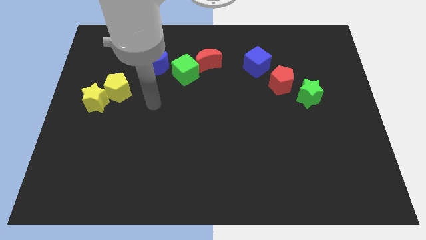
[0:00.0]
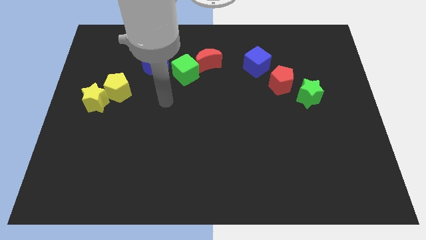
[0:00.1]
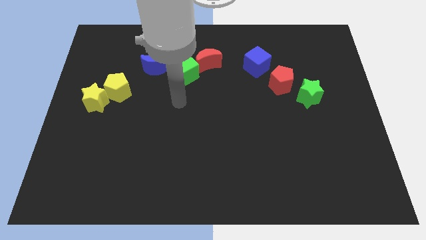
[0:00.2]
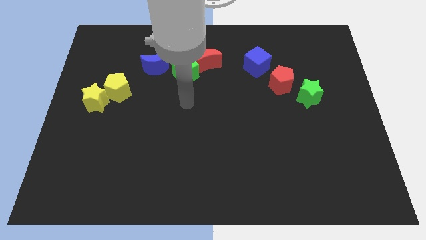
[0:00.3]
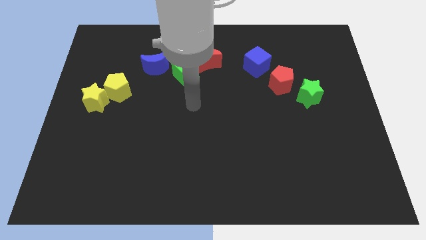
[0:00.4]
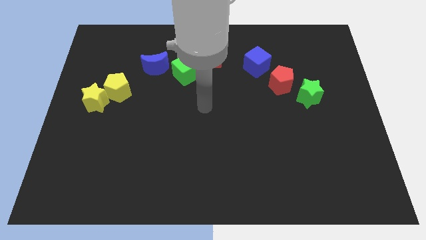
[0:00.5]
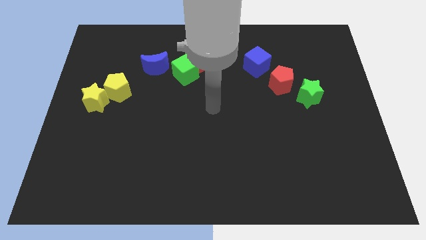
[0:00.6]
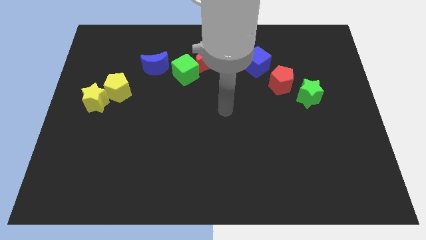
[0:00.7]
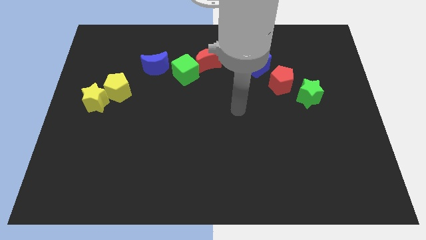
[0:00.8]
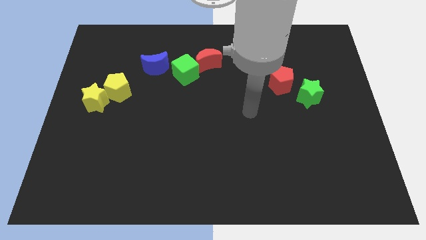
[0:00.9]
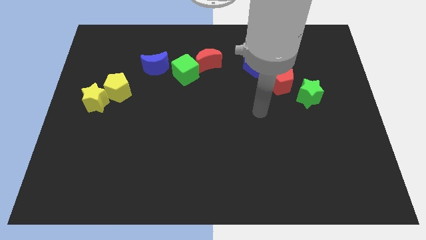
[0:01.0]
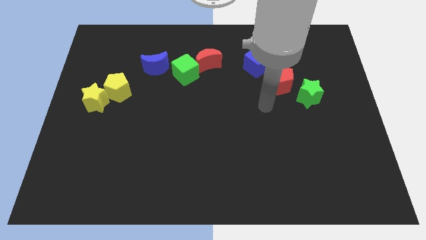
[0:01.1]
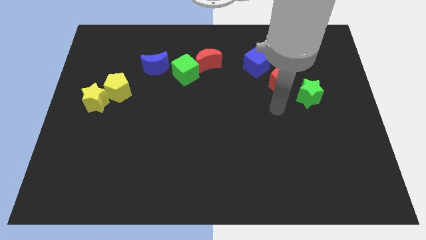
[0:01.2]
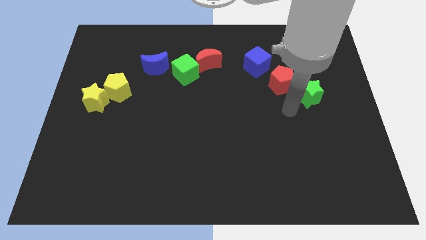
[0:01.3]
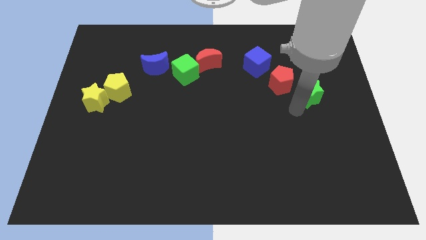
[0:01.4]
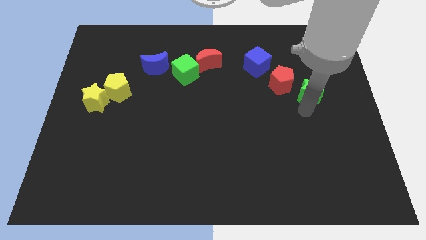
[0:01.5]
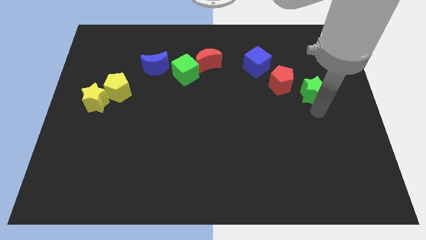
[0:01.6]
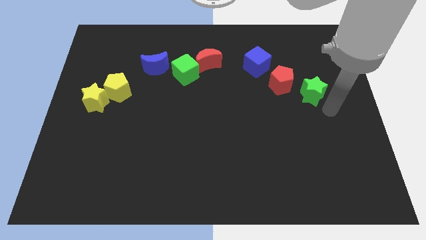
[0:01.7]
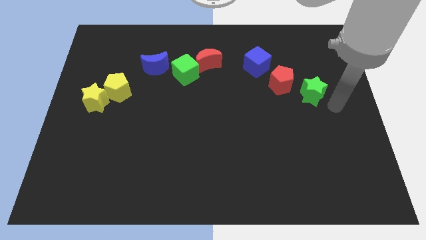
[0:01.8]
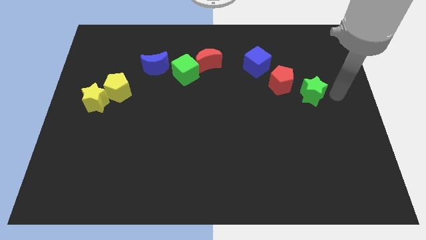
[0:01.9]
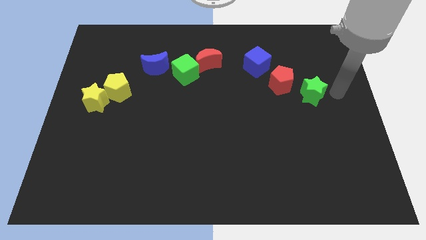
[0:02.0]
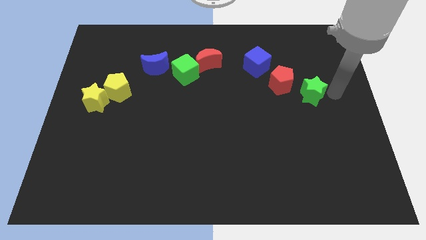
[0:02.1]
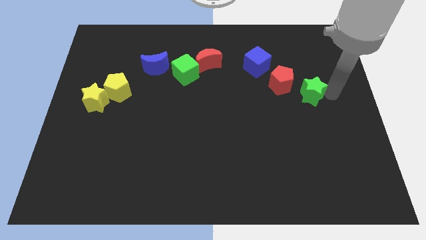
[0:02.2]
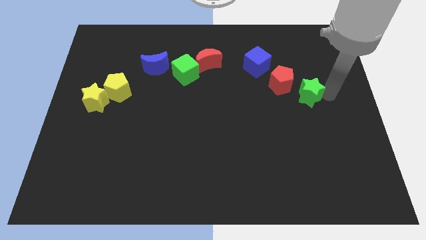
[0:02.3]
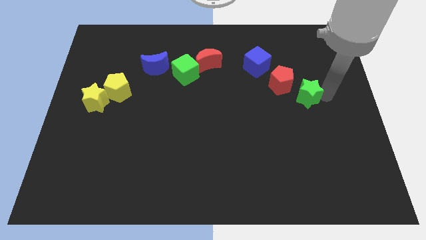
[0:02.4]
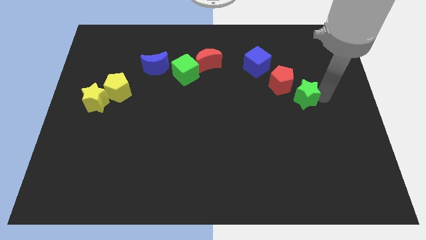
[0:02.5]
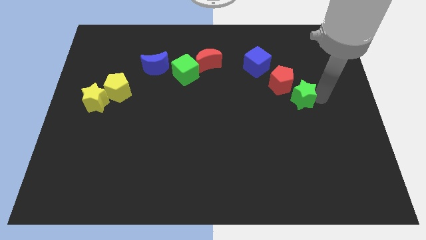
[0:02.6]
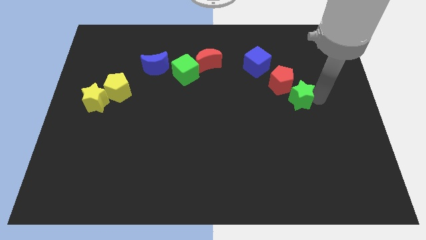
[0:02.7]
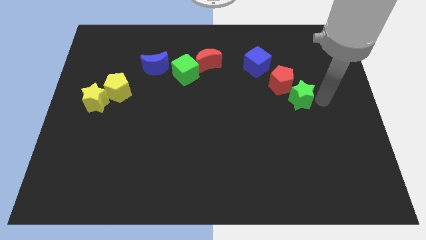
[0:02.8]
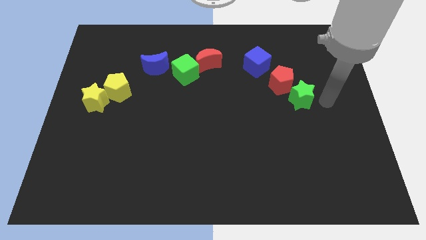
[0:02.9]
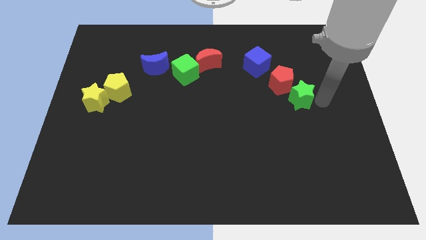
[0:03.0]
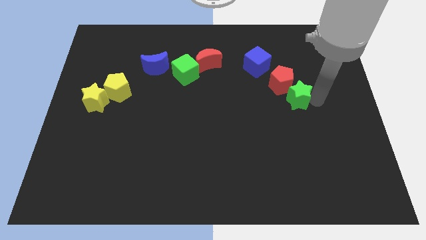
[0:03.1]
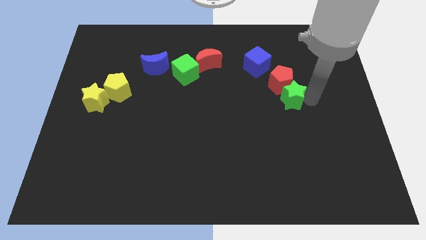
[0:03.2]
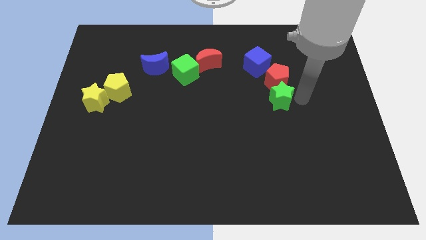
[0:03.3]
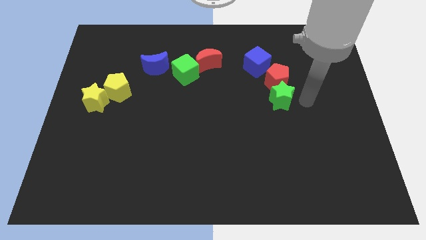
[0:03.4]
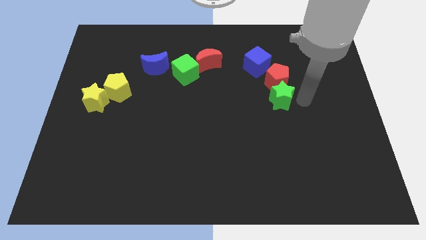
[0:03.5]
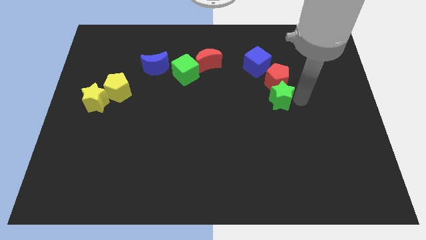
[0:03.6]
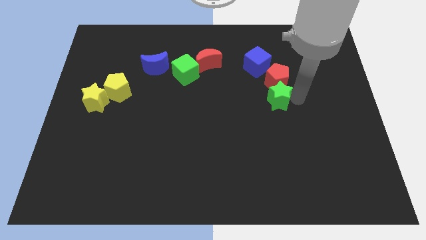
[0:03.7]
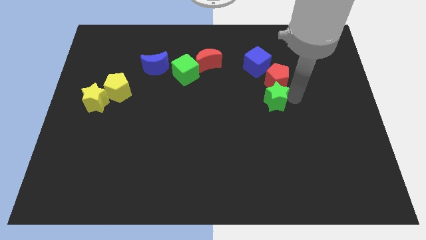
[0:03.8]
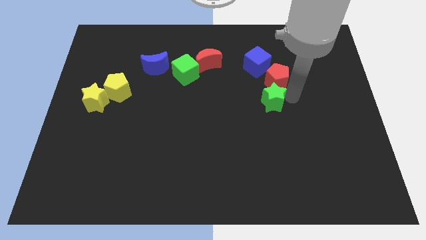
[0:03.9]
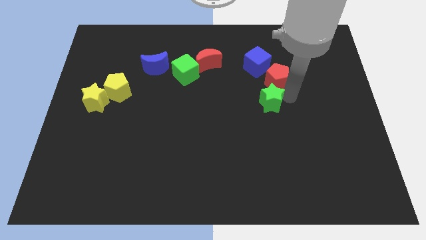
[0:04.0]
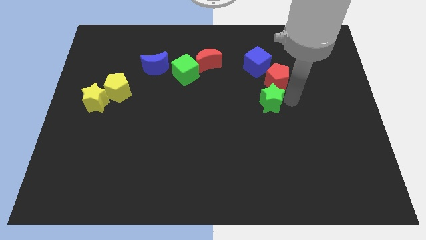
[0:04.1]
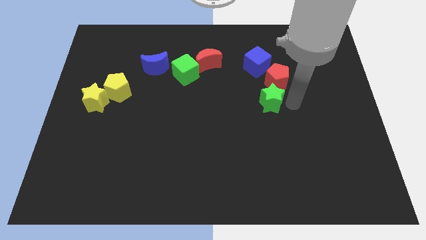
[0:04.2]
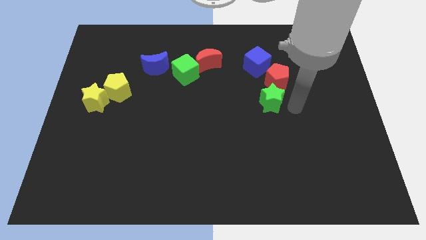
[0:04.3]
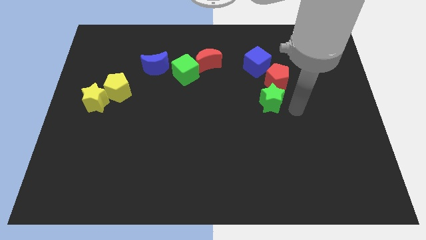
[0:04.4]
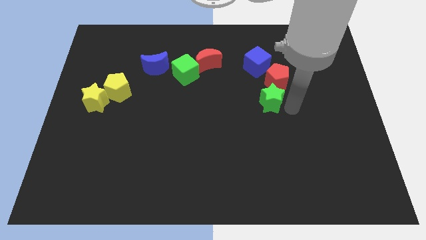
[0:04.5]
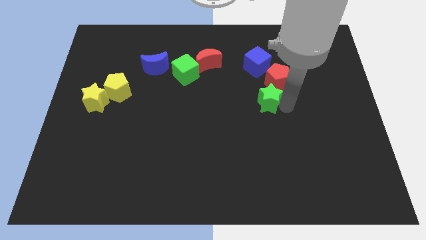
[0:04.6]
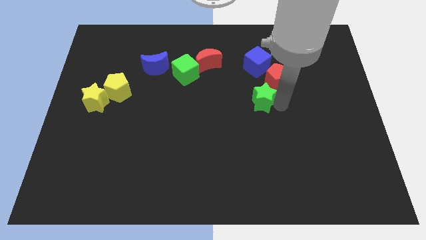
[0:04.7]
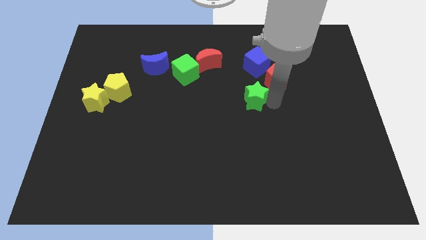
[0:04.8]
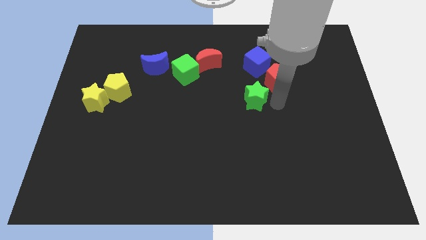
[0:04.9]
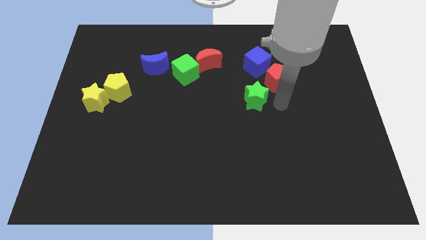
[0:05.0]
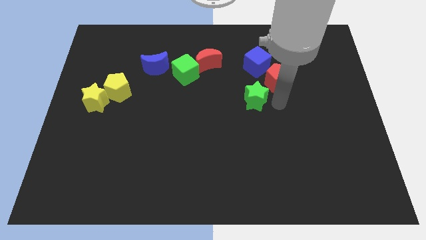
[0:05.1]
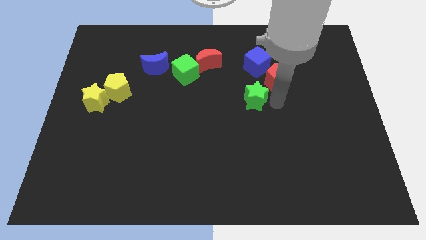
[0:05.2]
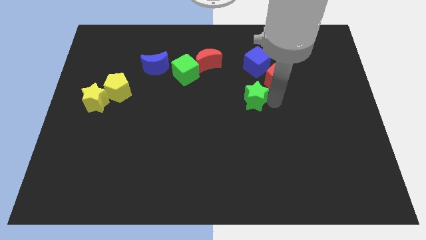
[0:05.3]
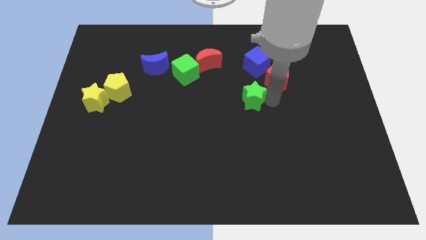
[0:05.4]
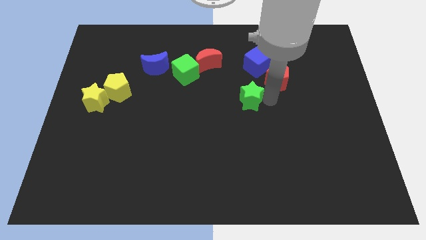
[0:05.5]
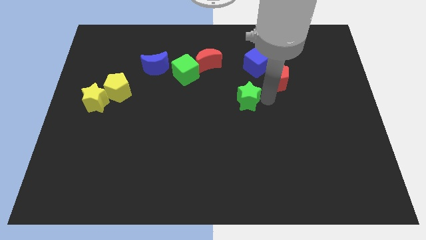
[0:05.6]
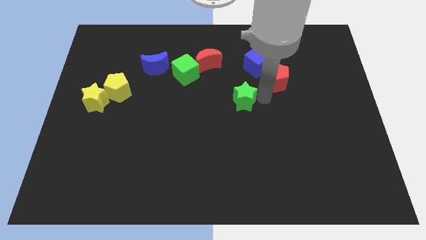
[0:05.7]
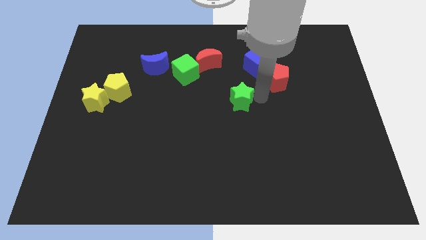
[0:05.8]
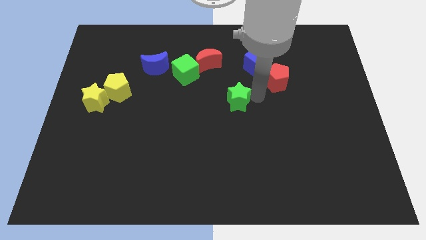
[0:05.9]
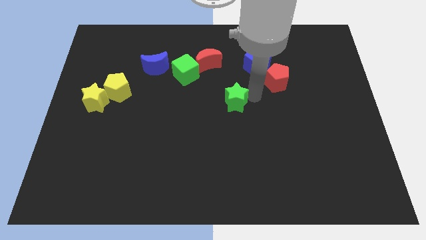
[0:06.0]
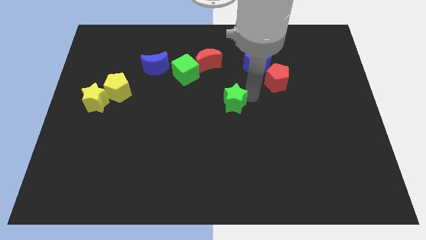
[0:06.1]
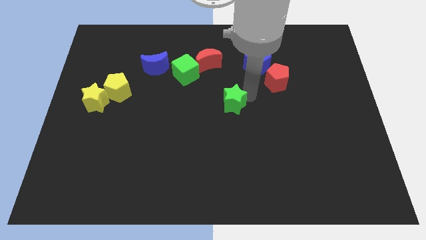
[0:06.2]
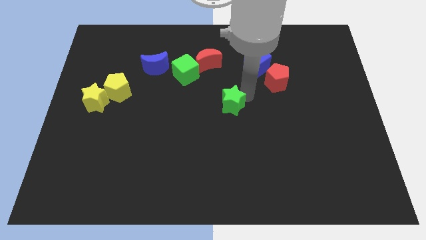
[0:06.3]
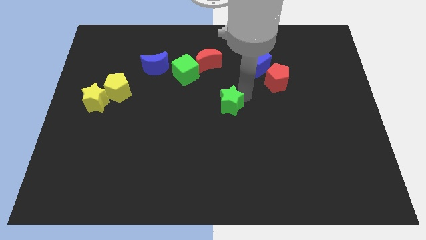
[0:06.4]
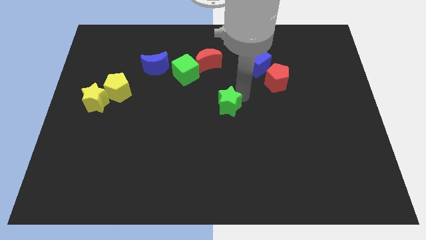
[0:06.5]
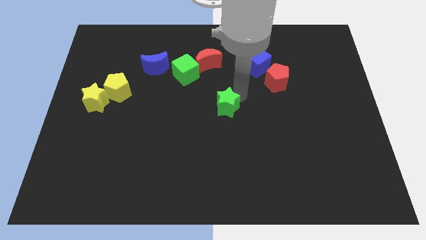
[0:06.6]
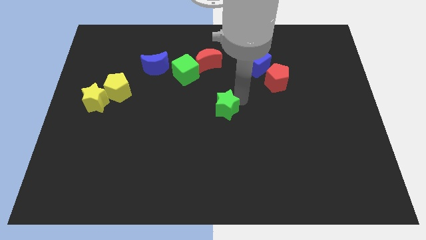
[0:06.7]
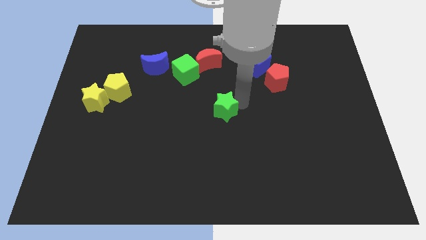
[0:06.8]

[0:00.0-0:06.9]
move the green star to the left

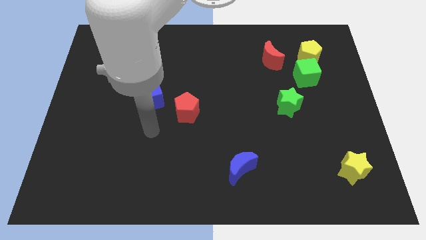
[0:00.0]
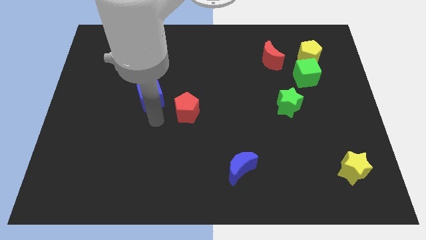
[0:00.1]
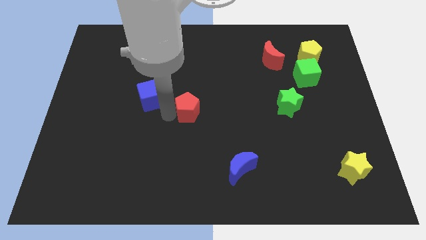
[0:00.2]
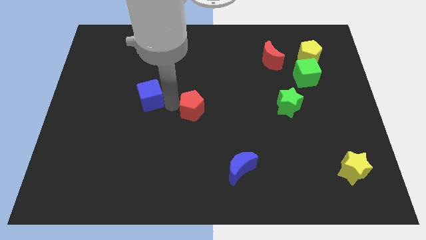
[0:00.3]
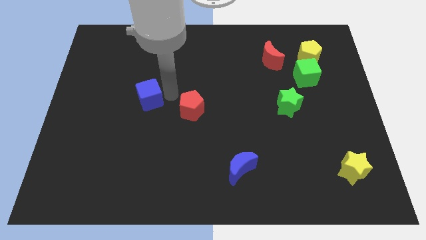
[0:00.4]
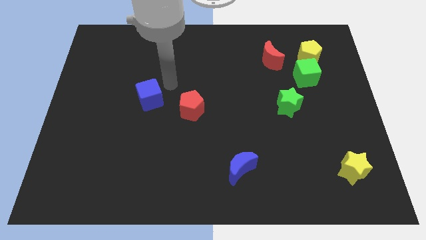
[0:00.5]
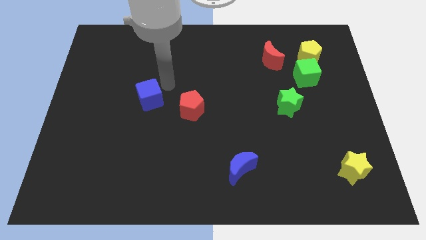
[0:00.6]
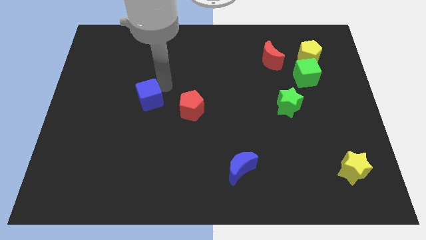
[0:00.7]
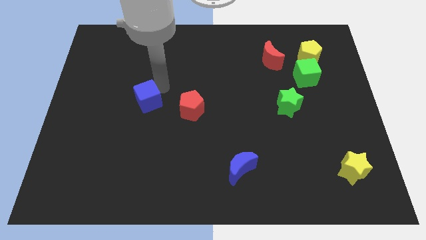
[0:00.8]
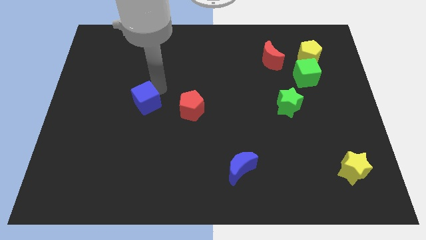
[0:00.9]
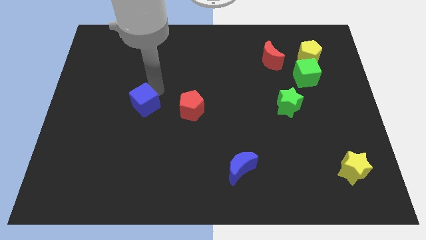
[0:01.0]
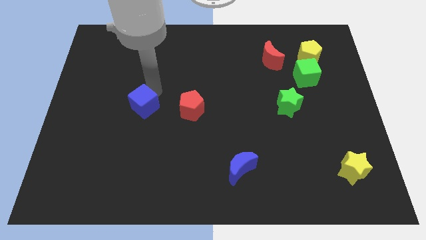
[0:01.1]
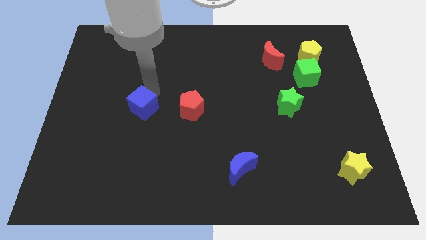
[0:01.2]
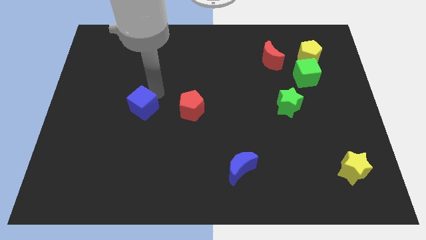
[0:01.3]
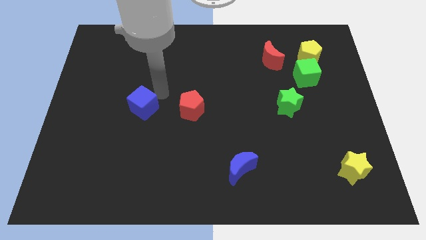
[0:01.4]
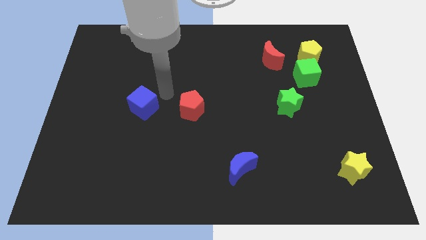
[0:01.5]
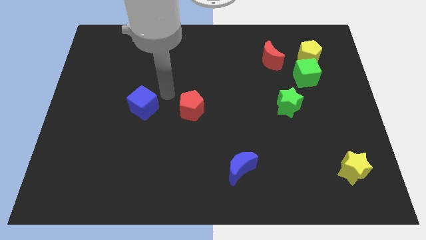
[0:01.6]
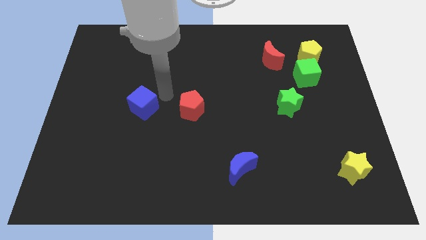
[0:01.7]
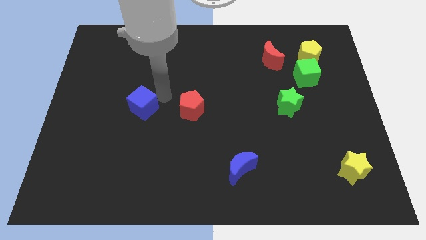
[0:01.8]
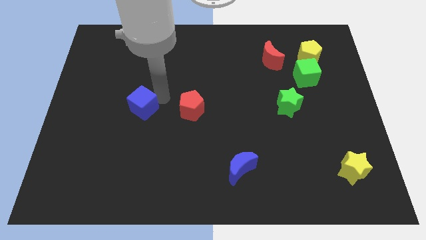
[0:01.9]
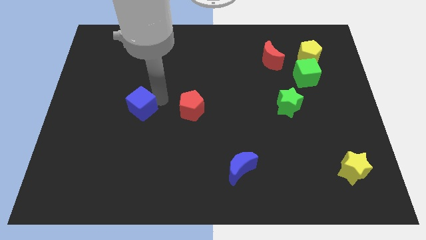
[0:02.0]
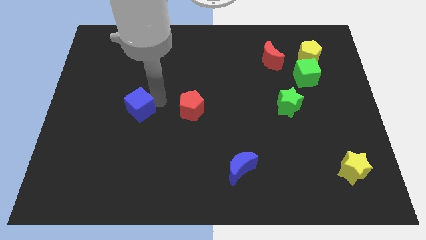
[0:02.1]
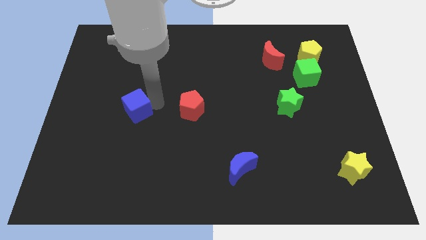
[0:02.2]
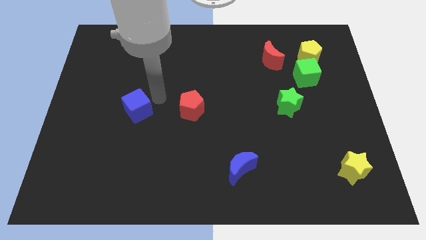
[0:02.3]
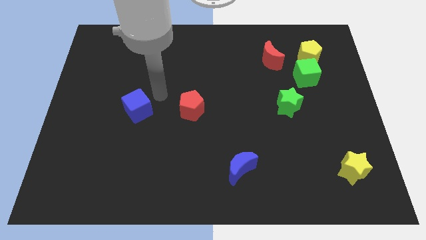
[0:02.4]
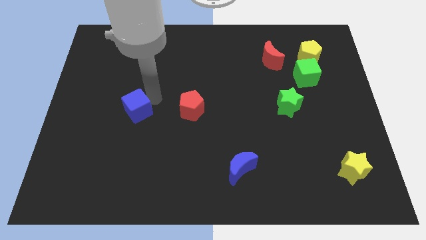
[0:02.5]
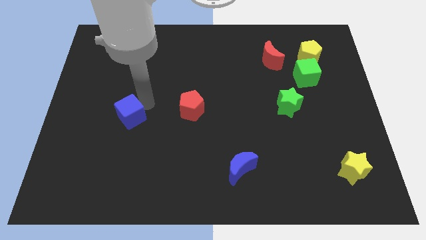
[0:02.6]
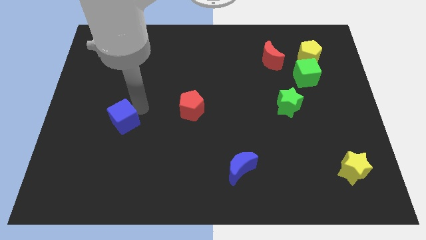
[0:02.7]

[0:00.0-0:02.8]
push the blue cube down and to the left somewhat
